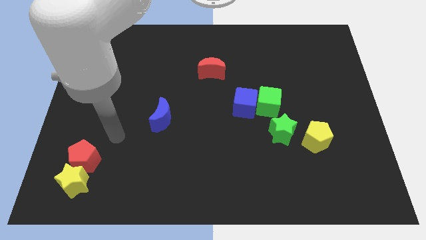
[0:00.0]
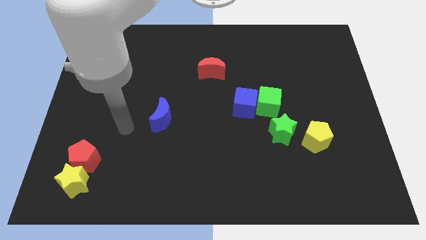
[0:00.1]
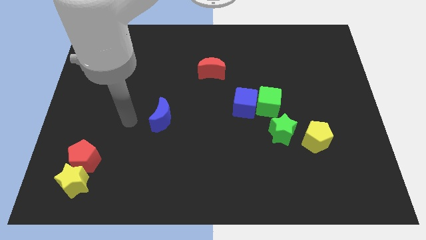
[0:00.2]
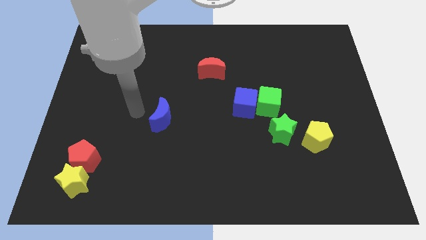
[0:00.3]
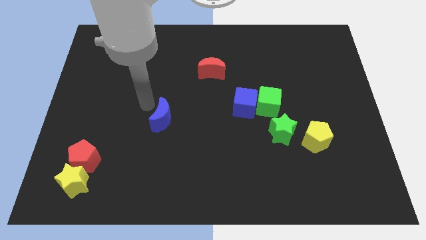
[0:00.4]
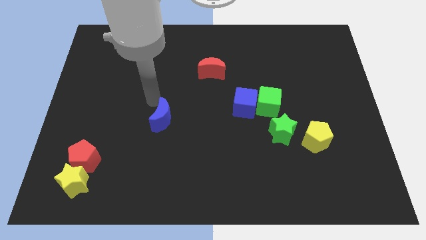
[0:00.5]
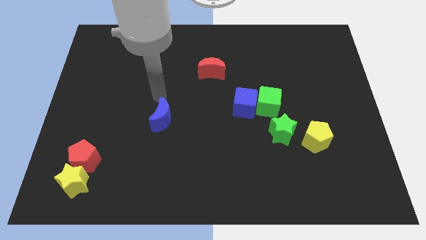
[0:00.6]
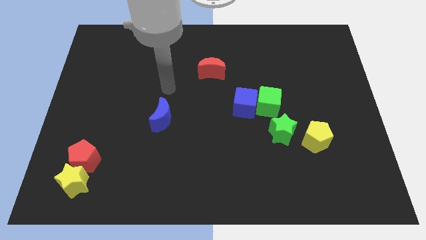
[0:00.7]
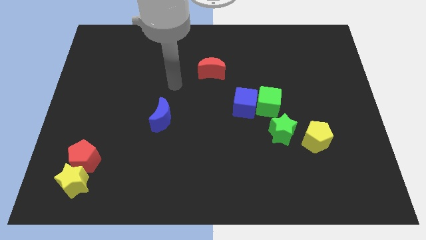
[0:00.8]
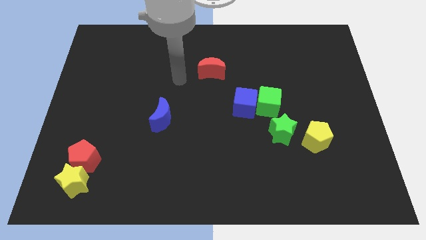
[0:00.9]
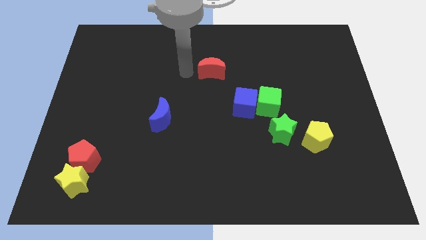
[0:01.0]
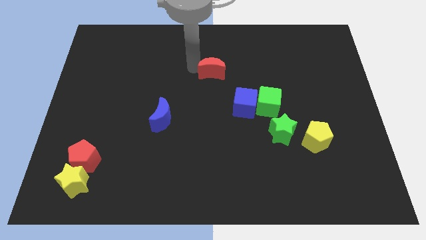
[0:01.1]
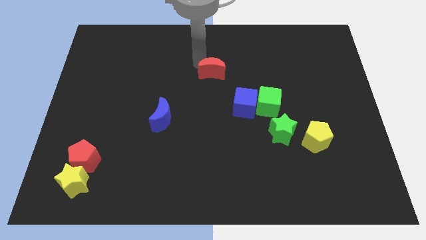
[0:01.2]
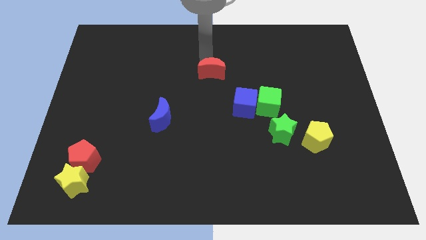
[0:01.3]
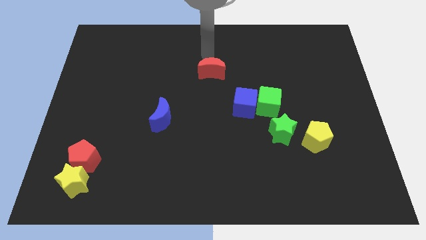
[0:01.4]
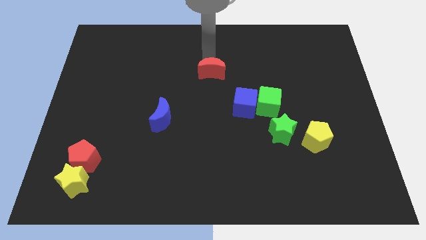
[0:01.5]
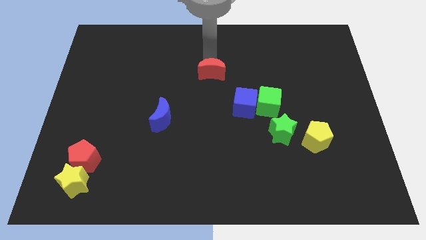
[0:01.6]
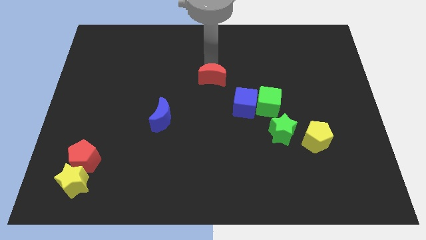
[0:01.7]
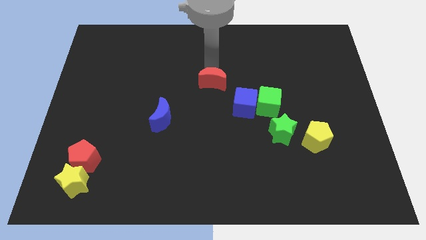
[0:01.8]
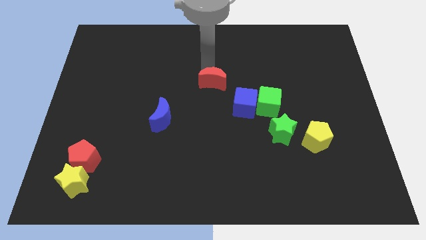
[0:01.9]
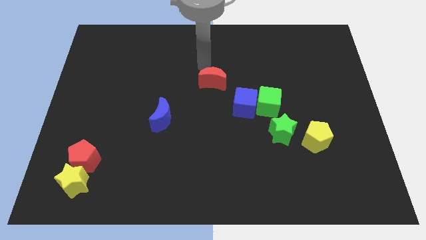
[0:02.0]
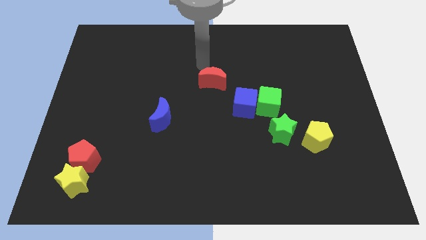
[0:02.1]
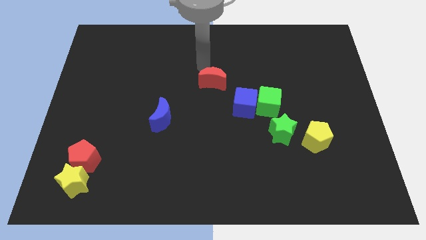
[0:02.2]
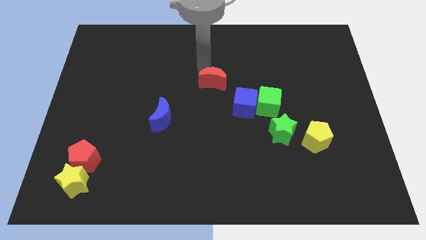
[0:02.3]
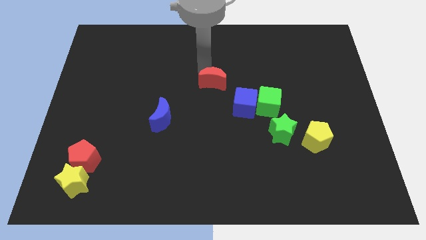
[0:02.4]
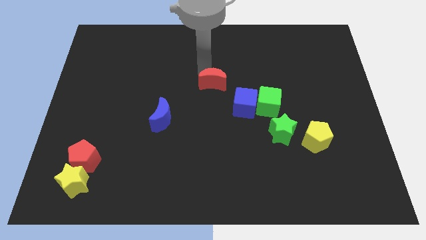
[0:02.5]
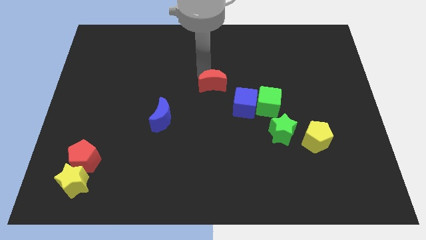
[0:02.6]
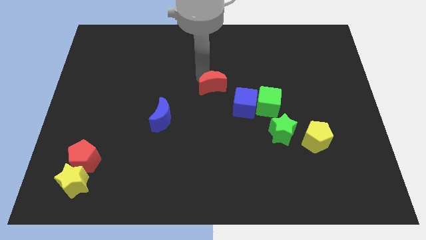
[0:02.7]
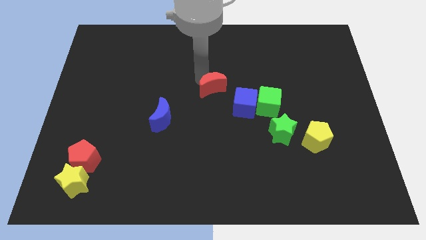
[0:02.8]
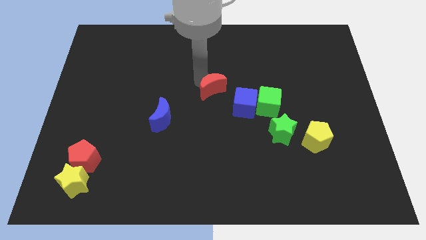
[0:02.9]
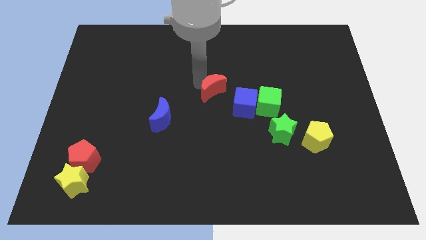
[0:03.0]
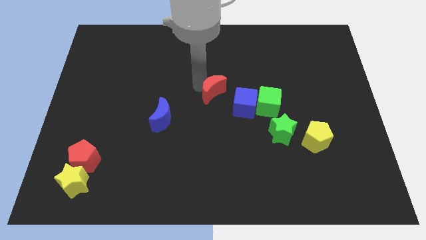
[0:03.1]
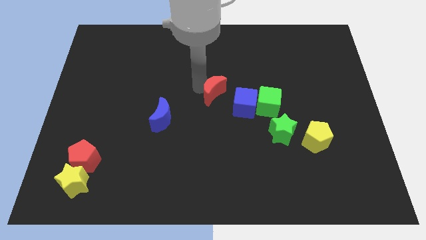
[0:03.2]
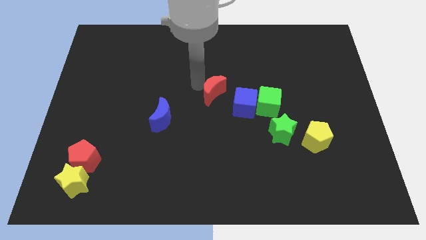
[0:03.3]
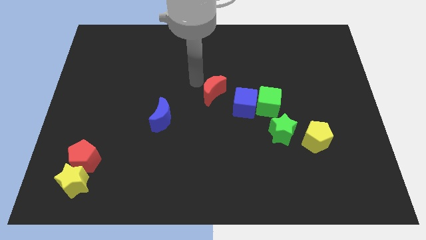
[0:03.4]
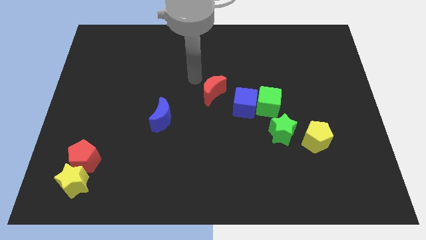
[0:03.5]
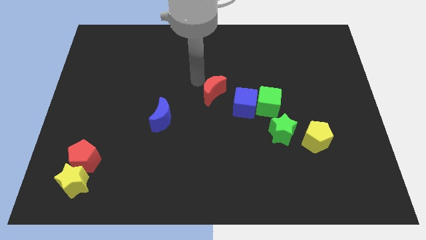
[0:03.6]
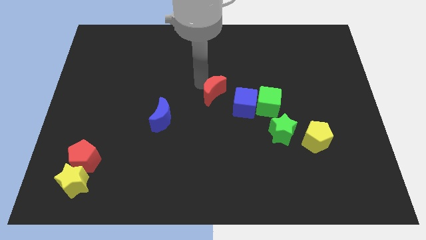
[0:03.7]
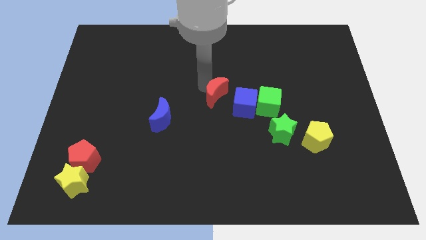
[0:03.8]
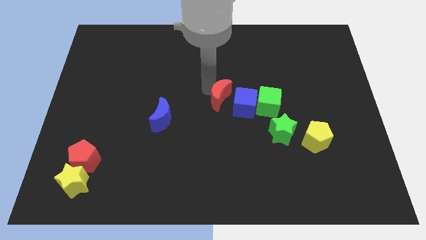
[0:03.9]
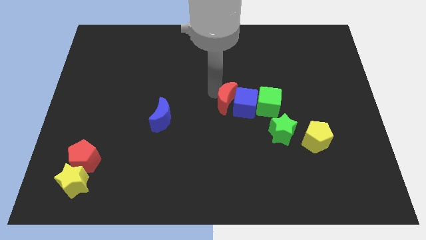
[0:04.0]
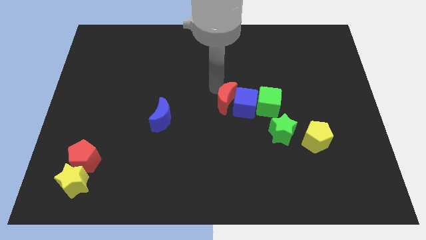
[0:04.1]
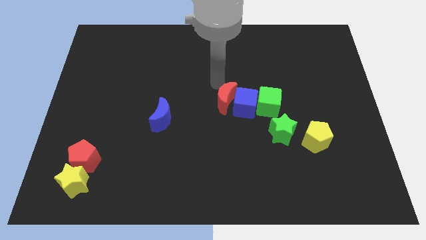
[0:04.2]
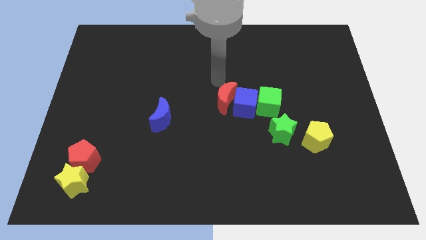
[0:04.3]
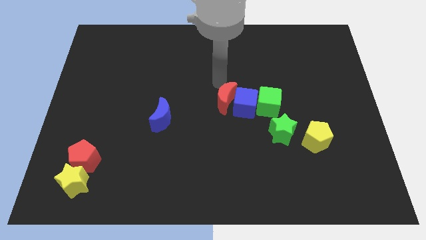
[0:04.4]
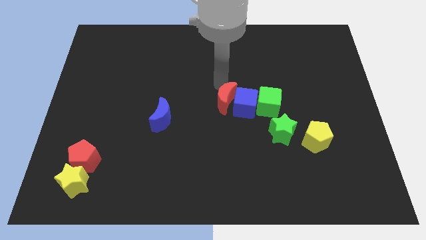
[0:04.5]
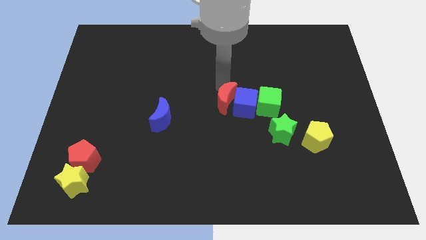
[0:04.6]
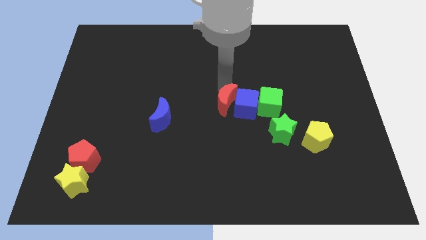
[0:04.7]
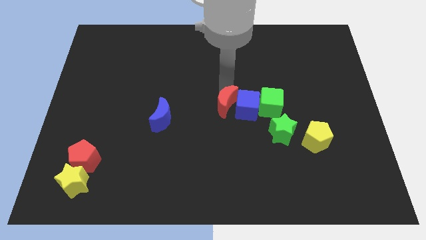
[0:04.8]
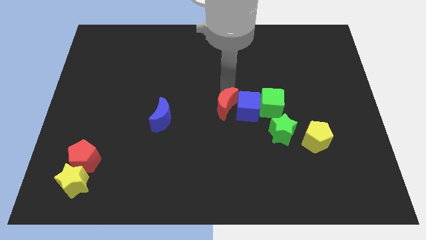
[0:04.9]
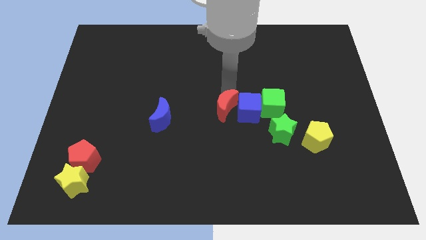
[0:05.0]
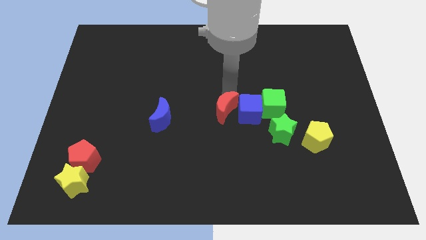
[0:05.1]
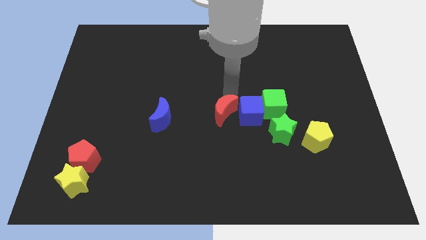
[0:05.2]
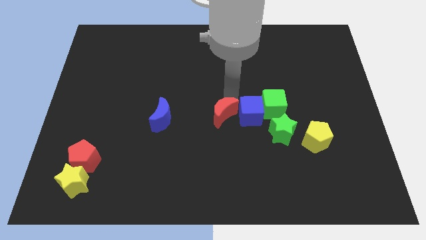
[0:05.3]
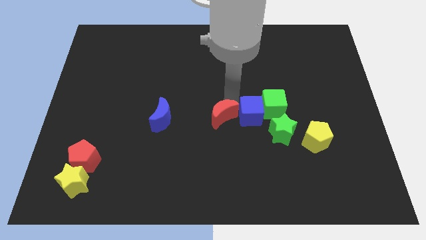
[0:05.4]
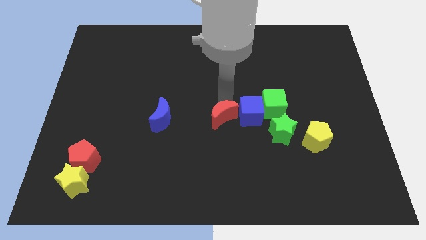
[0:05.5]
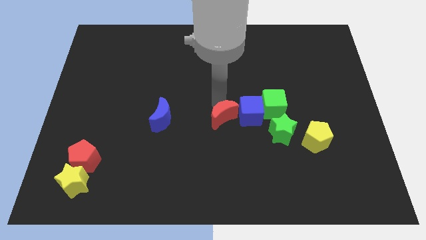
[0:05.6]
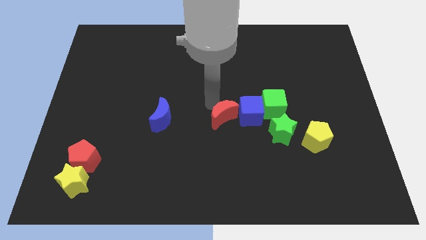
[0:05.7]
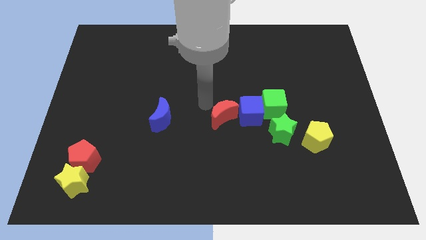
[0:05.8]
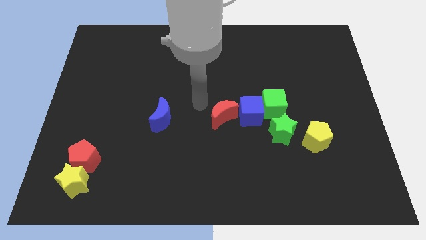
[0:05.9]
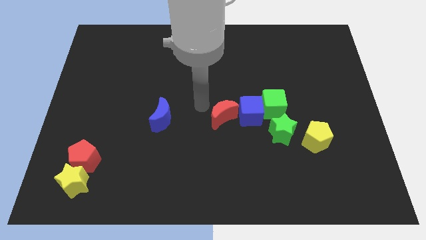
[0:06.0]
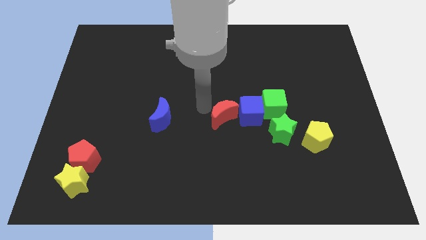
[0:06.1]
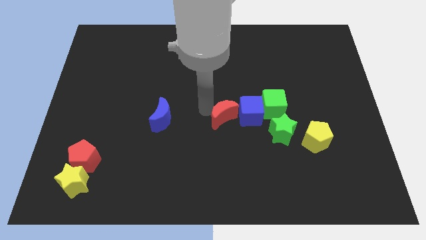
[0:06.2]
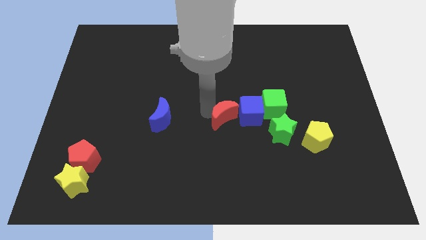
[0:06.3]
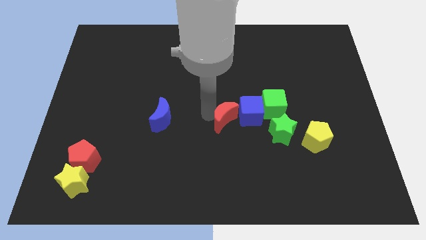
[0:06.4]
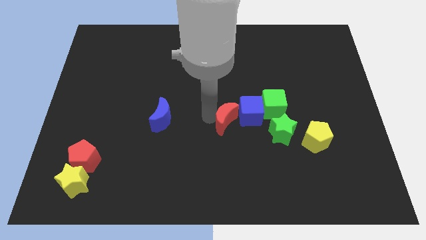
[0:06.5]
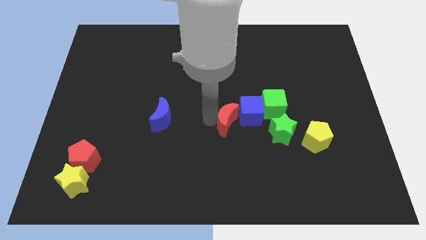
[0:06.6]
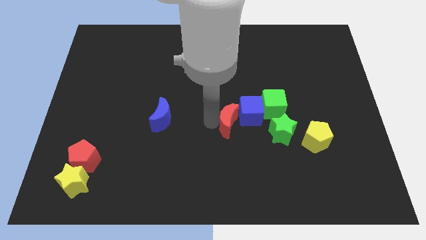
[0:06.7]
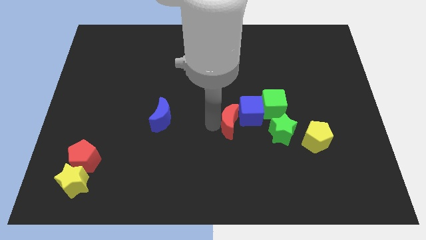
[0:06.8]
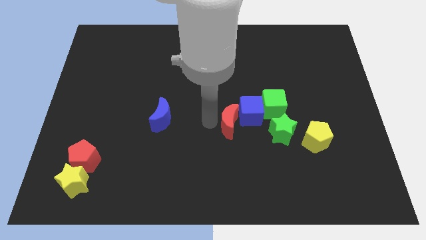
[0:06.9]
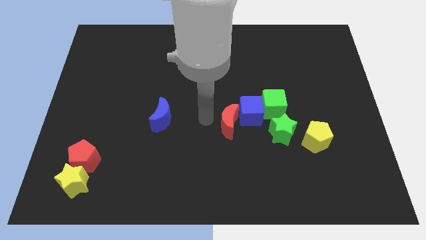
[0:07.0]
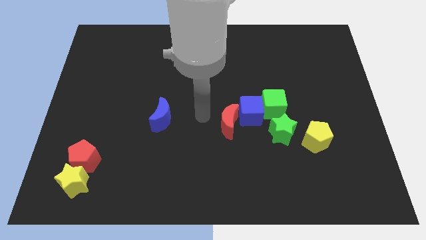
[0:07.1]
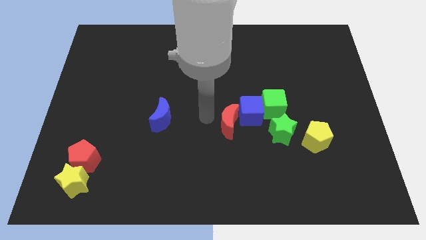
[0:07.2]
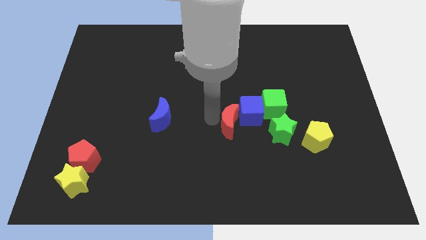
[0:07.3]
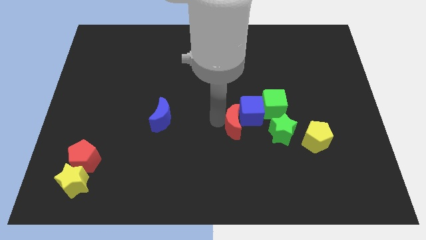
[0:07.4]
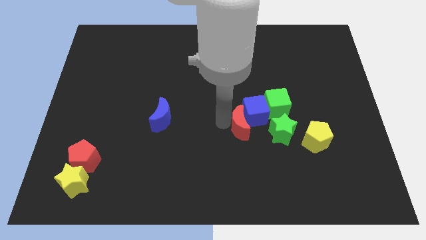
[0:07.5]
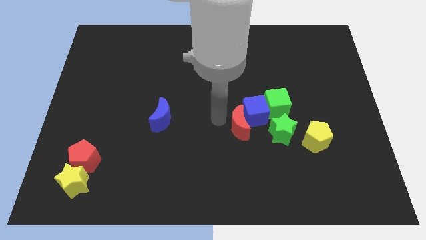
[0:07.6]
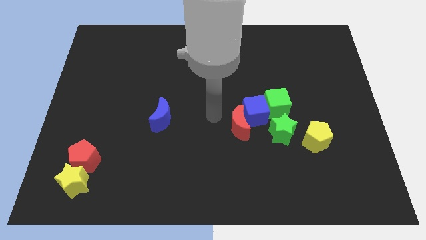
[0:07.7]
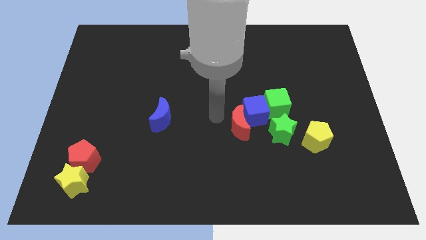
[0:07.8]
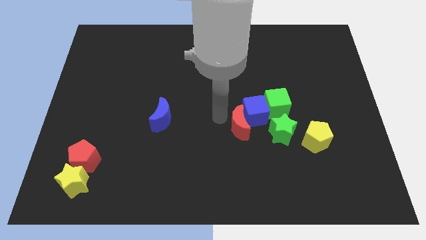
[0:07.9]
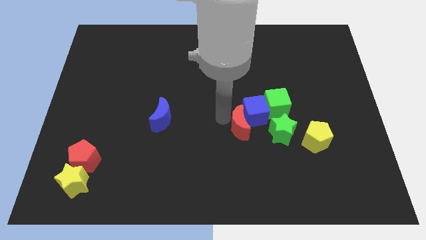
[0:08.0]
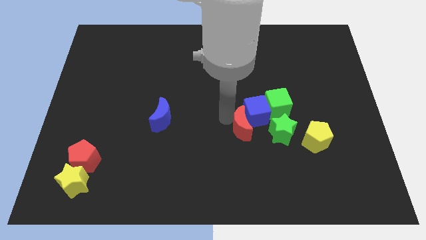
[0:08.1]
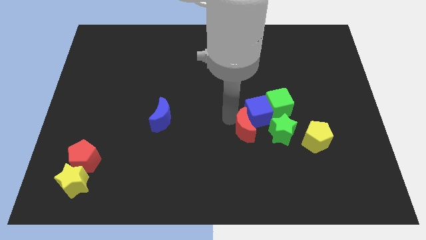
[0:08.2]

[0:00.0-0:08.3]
move the red moon left of the yellow pentagon
